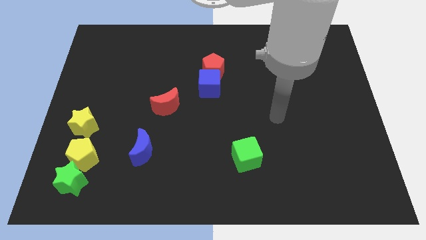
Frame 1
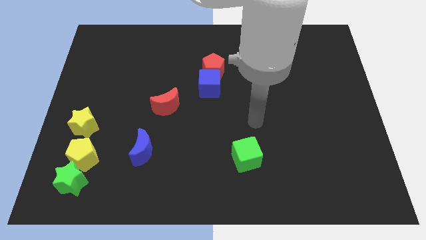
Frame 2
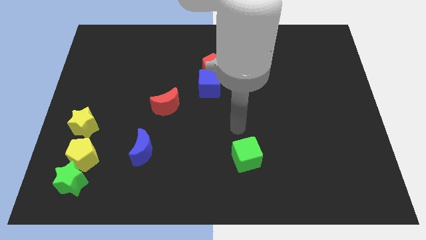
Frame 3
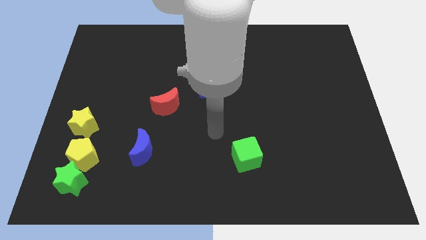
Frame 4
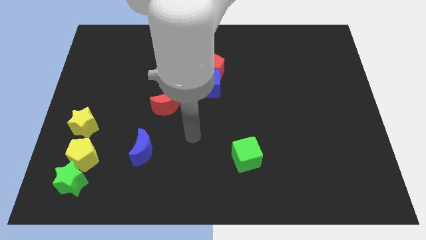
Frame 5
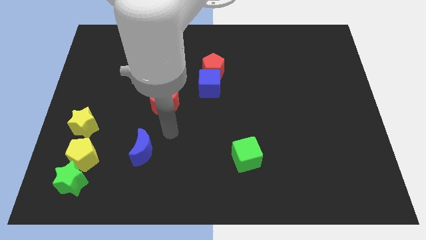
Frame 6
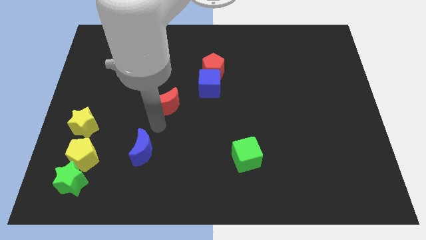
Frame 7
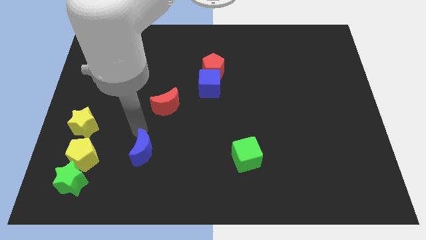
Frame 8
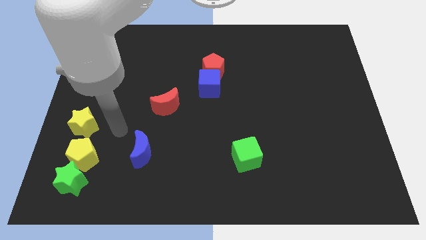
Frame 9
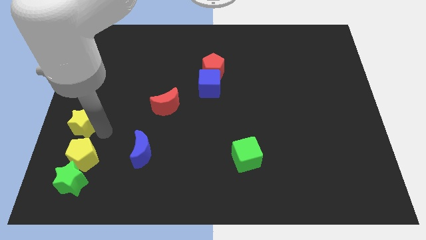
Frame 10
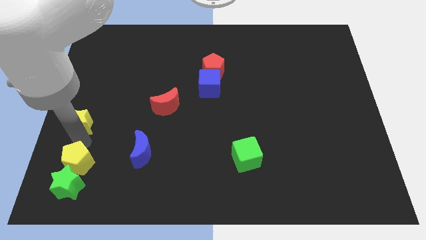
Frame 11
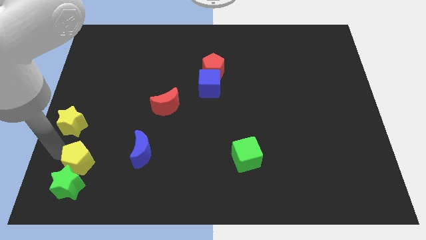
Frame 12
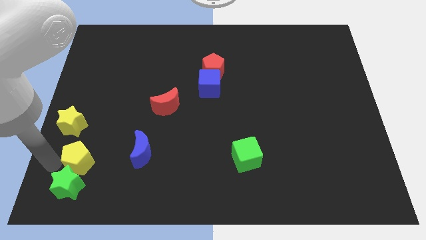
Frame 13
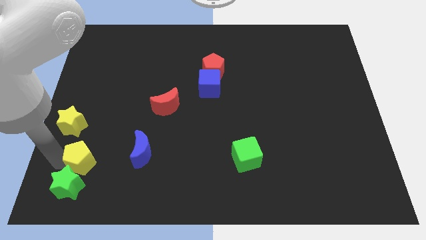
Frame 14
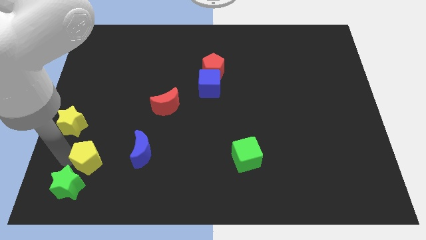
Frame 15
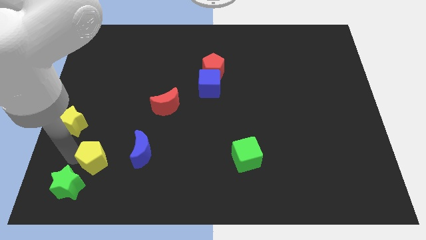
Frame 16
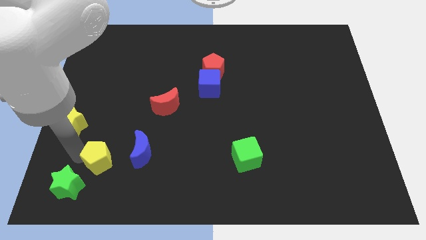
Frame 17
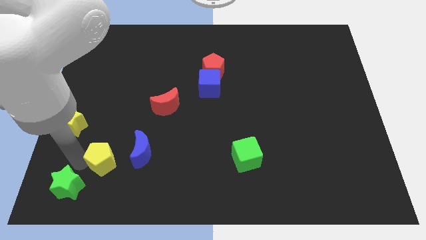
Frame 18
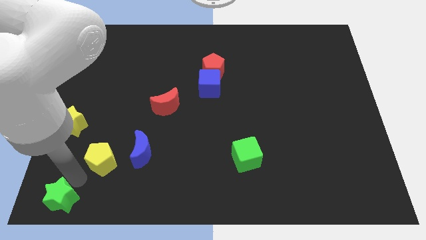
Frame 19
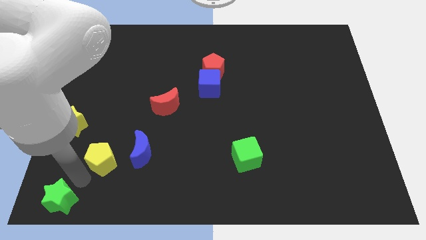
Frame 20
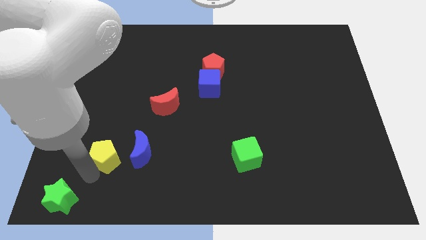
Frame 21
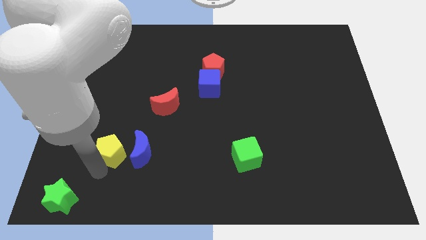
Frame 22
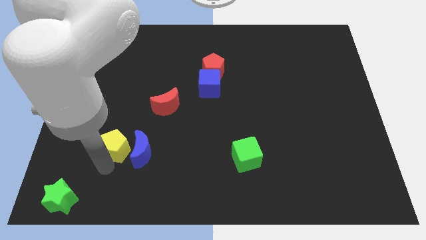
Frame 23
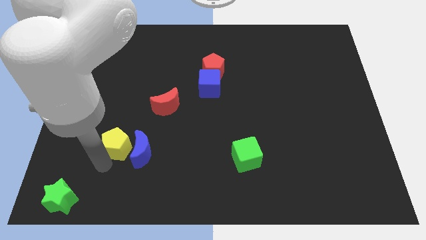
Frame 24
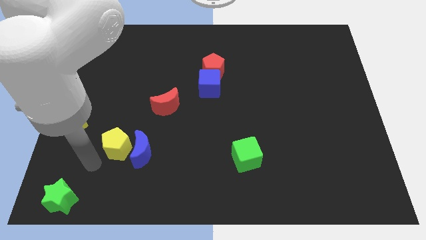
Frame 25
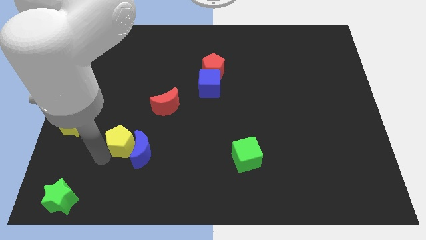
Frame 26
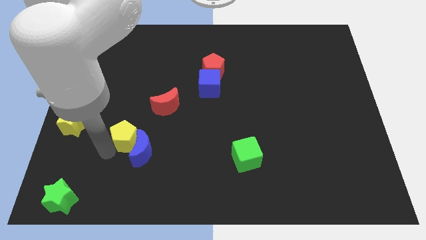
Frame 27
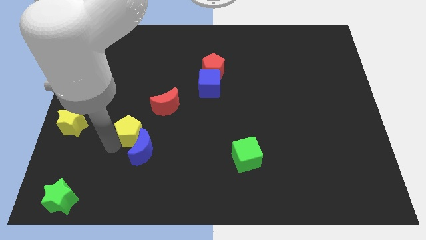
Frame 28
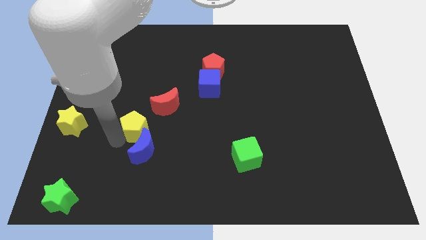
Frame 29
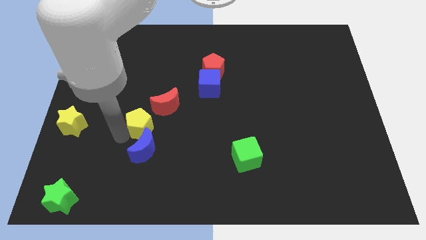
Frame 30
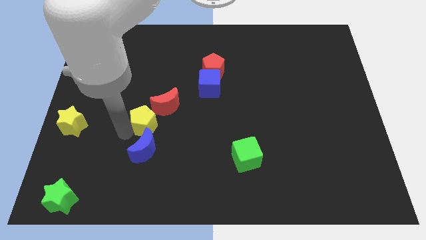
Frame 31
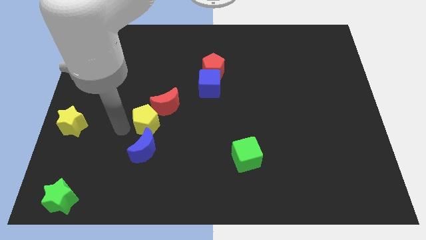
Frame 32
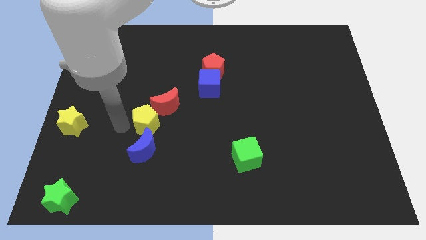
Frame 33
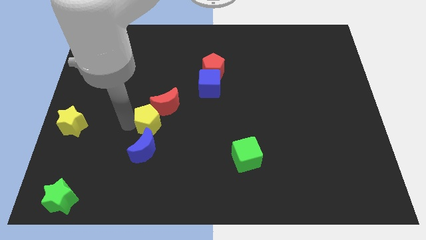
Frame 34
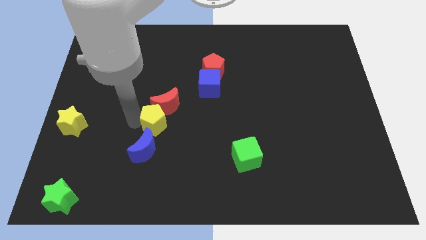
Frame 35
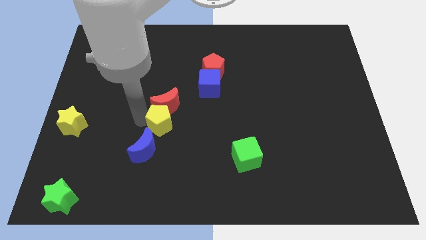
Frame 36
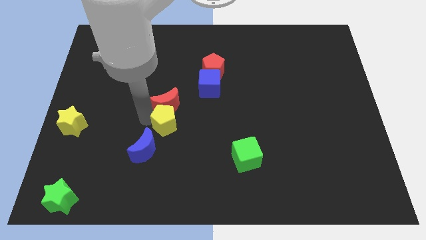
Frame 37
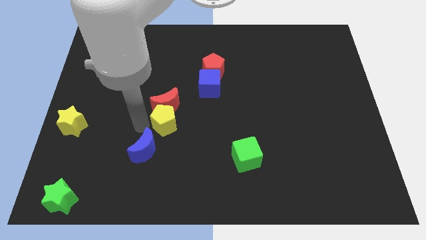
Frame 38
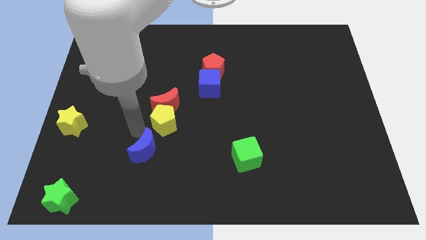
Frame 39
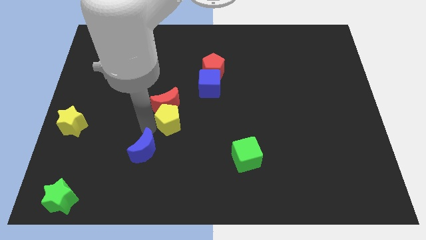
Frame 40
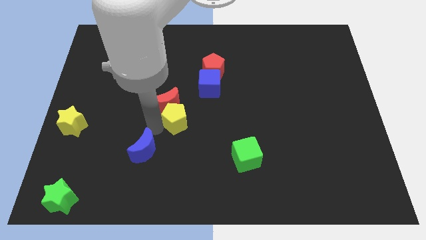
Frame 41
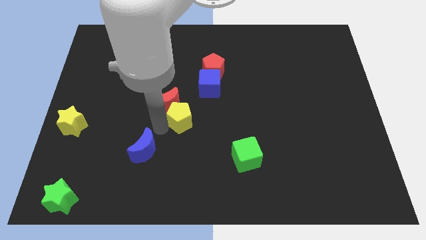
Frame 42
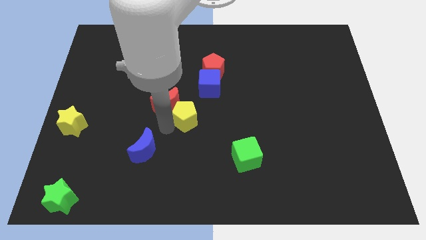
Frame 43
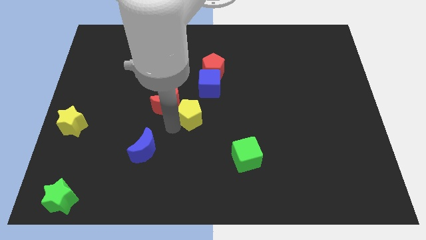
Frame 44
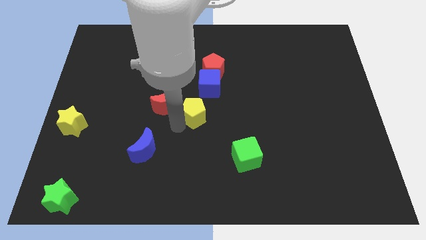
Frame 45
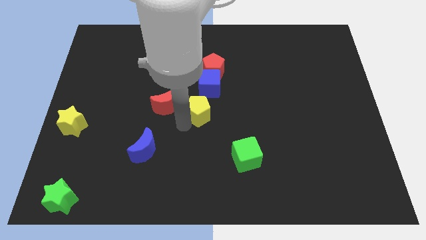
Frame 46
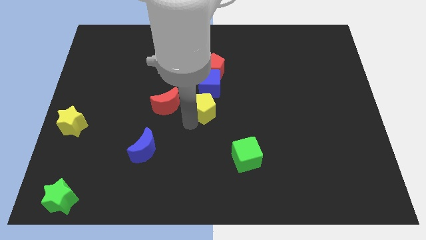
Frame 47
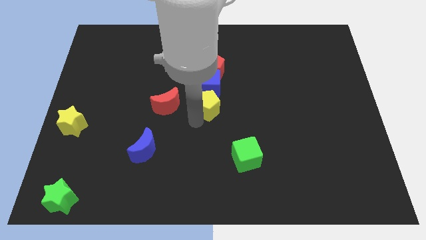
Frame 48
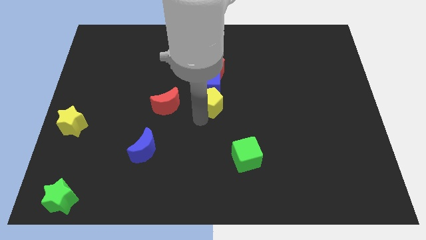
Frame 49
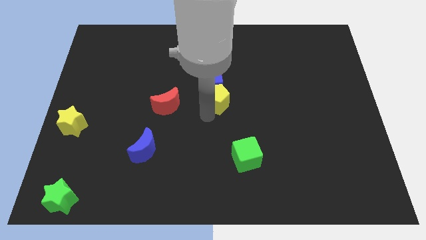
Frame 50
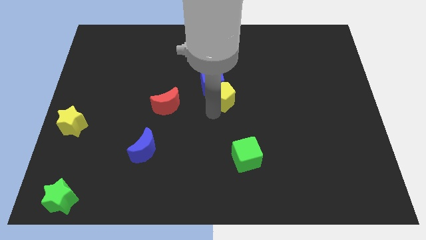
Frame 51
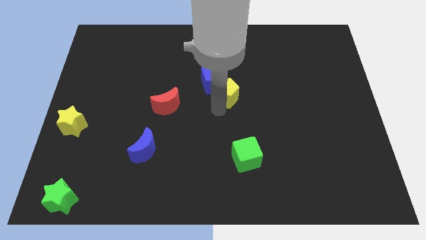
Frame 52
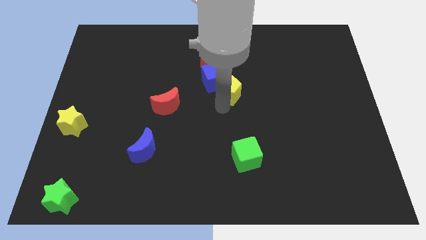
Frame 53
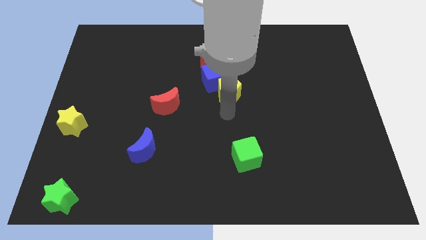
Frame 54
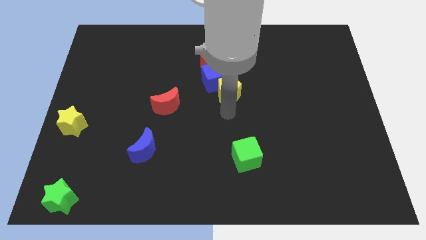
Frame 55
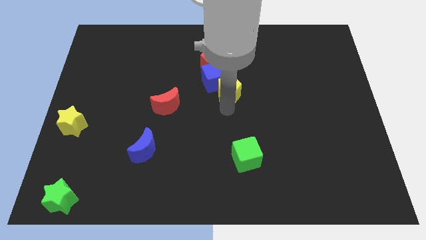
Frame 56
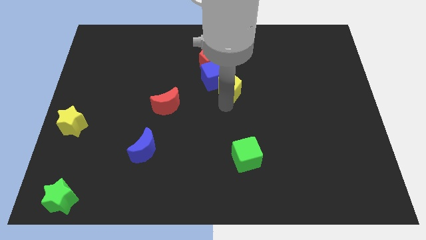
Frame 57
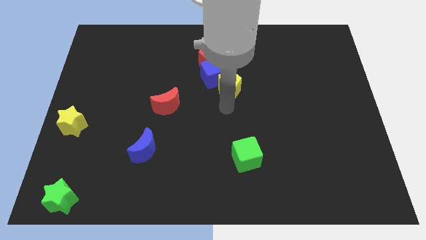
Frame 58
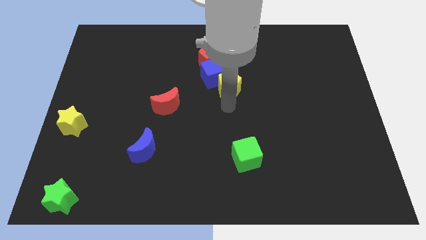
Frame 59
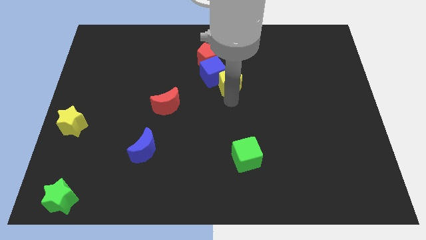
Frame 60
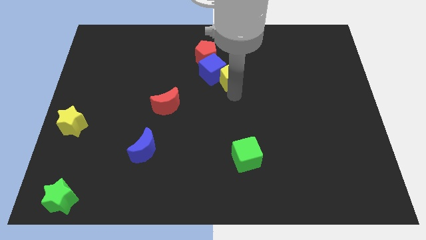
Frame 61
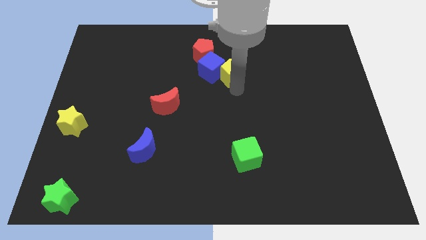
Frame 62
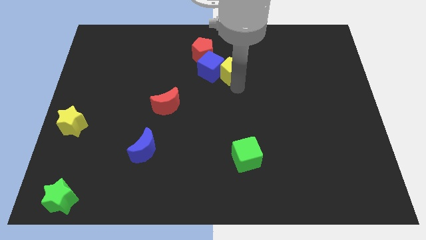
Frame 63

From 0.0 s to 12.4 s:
slide the yellow pentagon to the top right side of the blue cube
